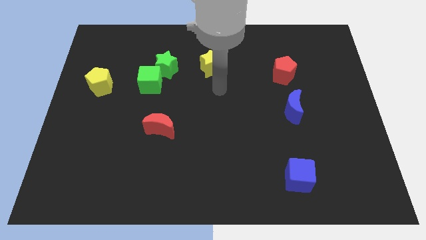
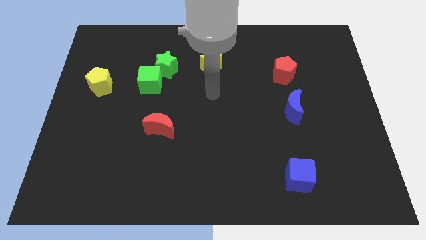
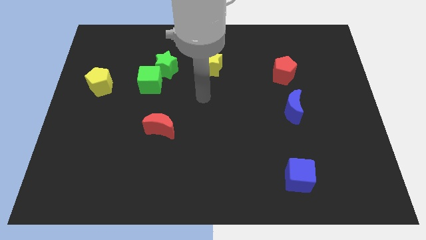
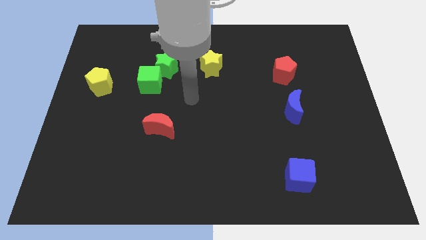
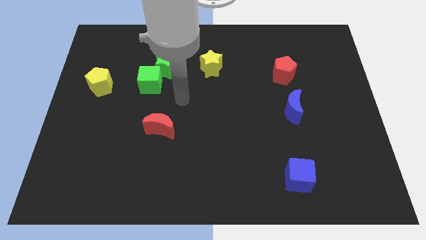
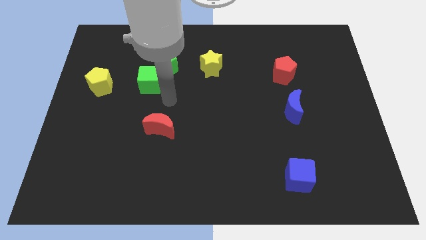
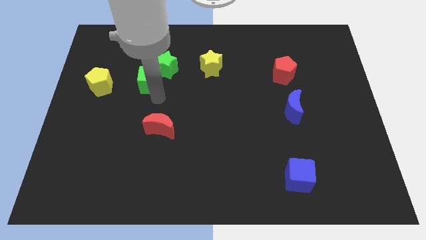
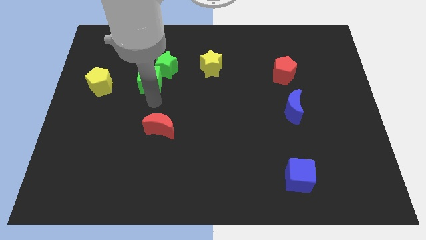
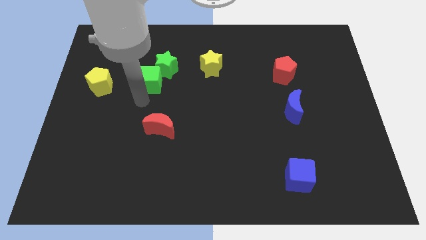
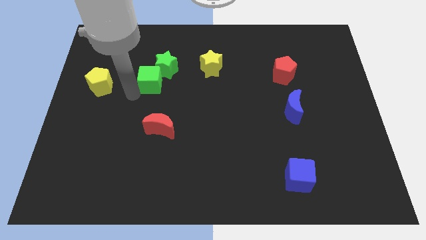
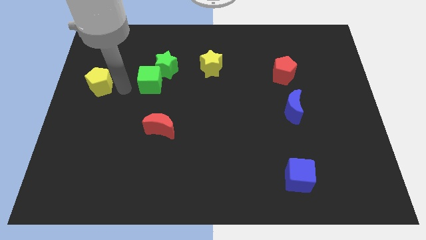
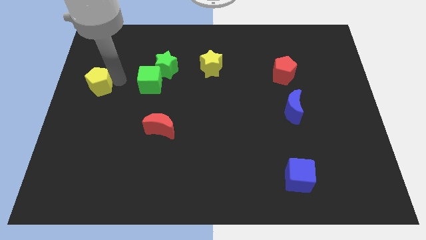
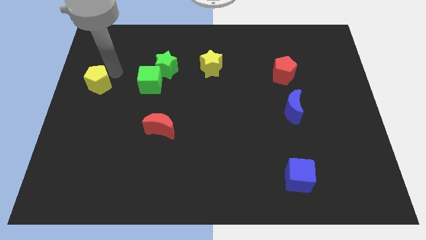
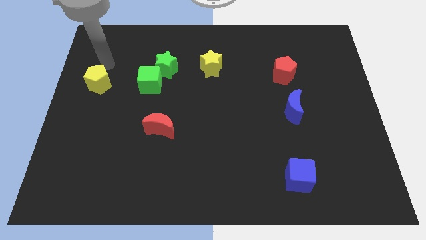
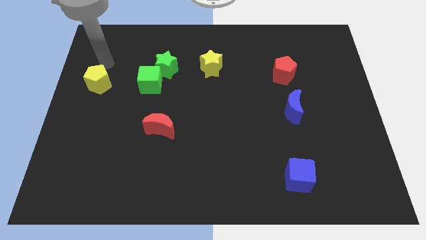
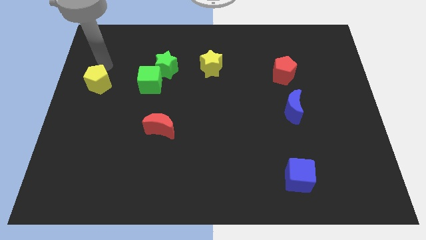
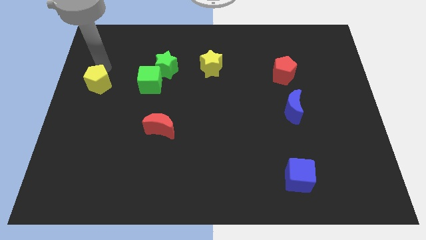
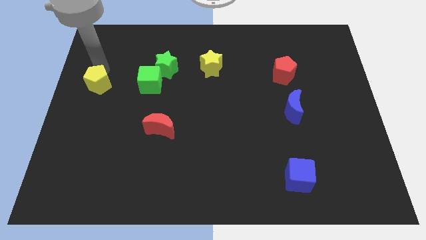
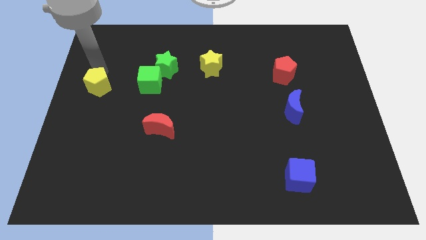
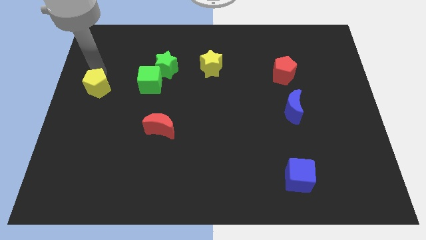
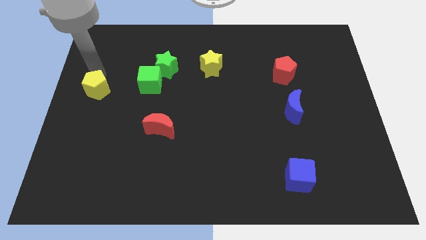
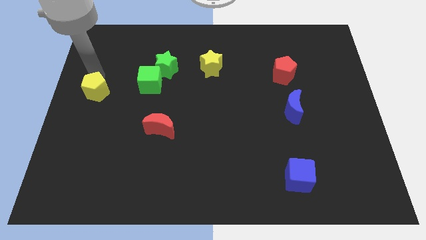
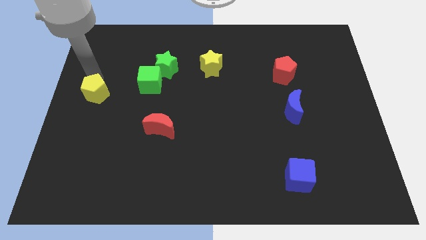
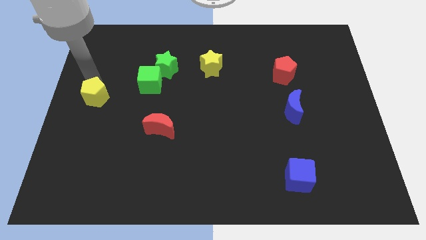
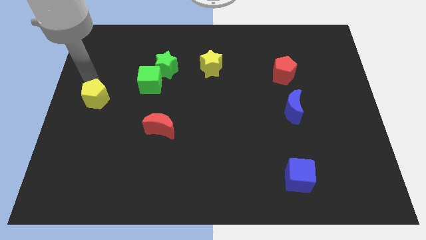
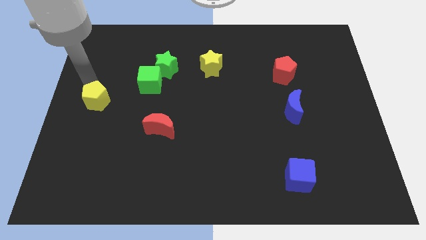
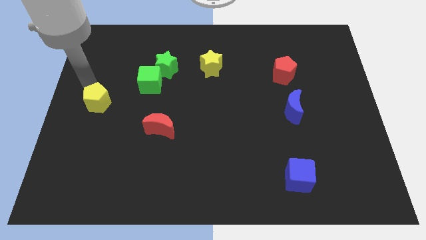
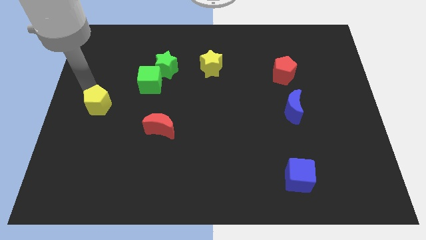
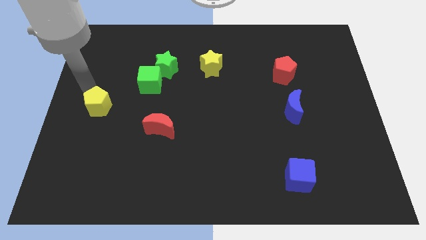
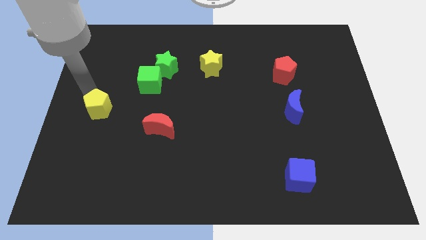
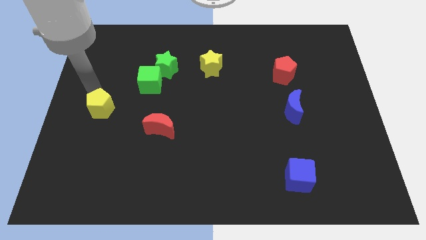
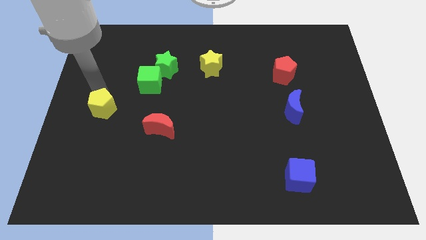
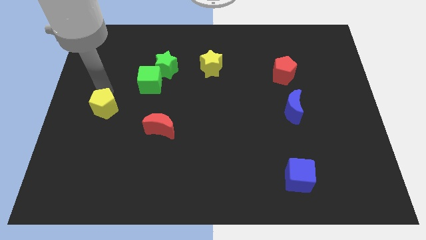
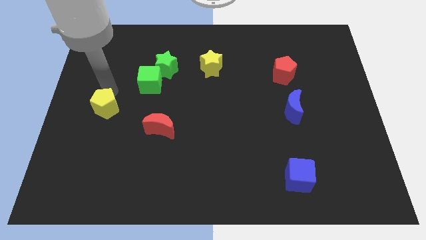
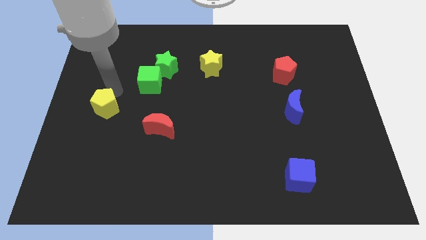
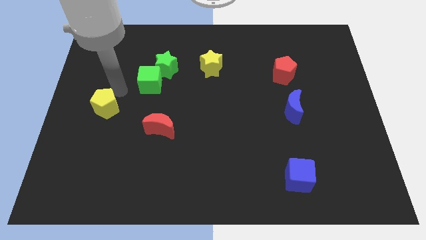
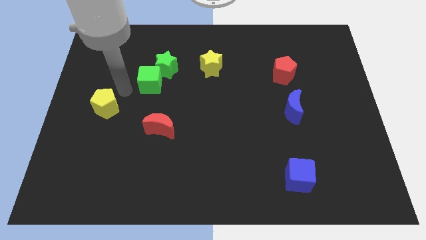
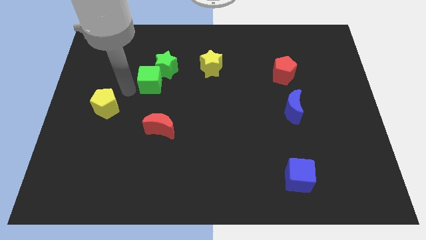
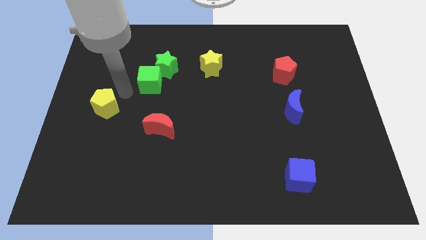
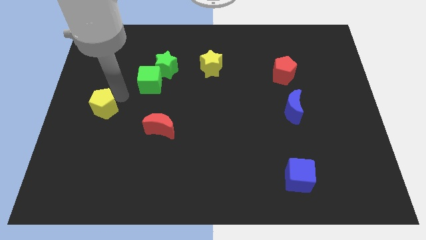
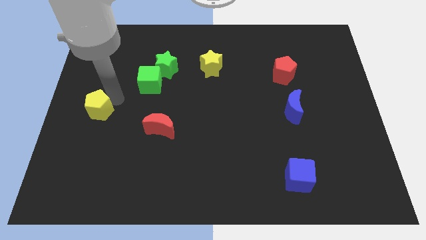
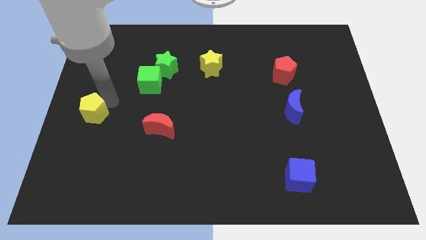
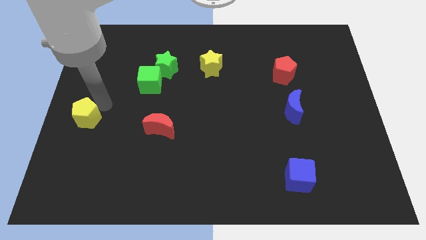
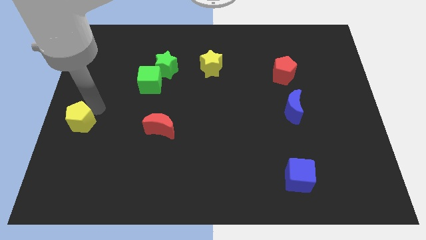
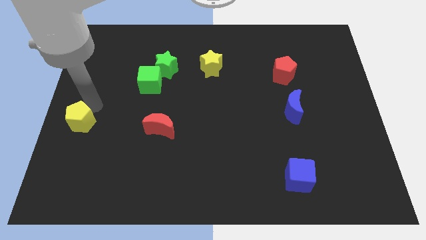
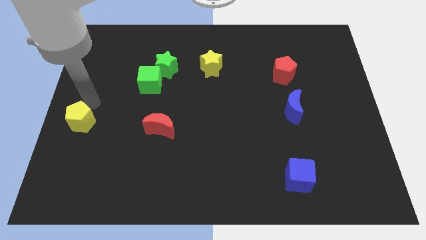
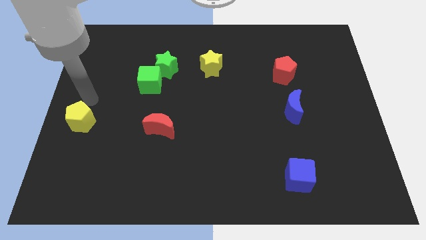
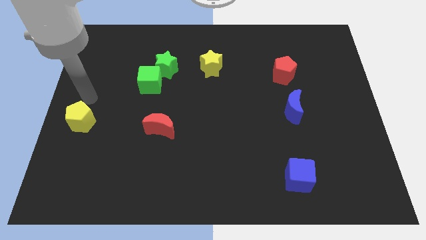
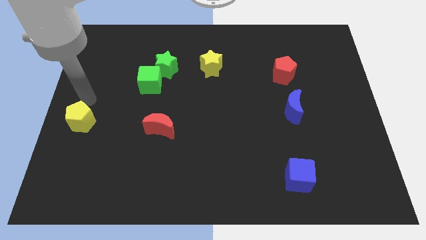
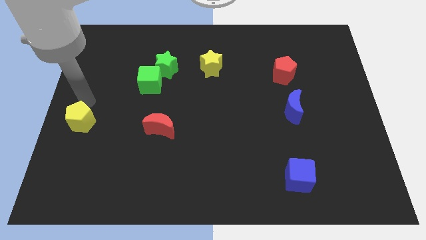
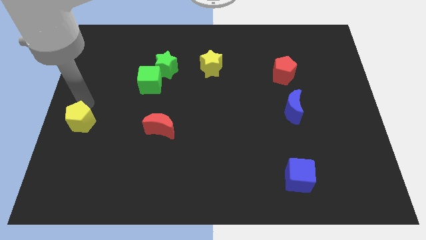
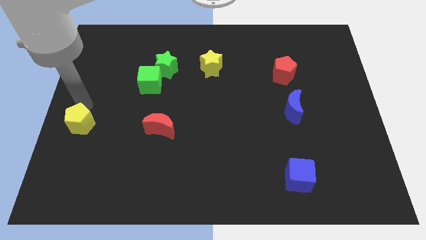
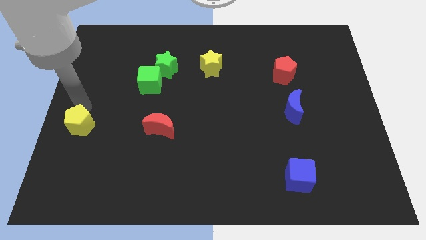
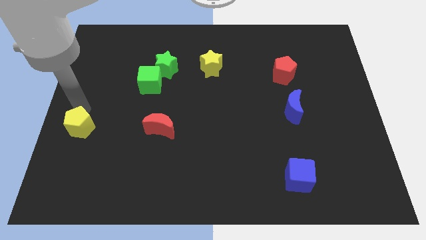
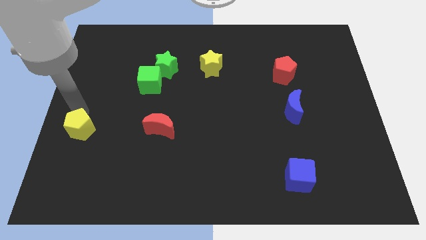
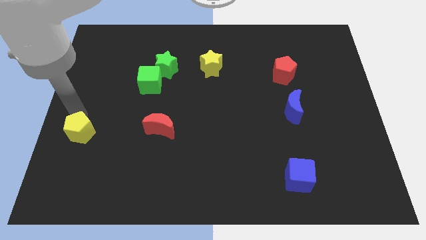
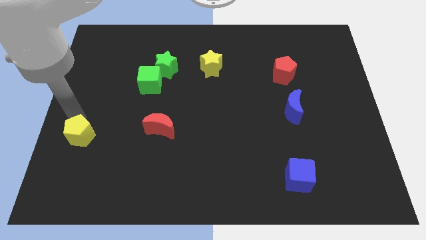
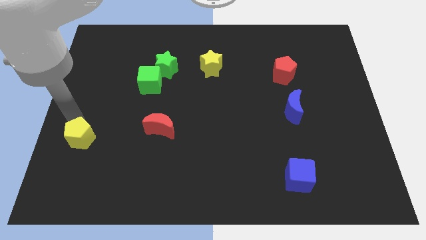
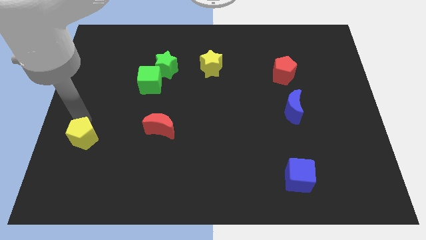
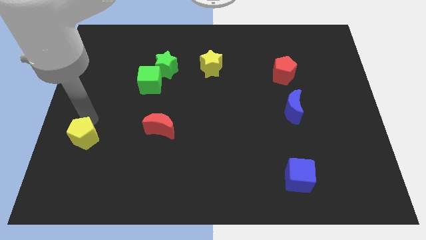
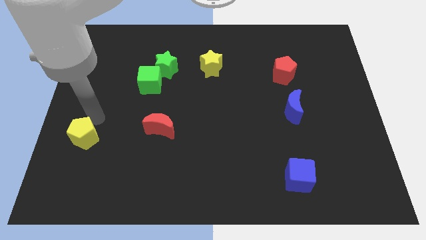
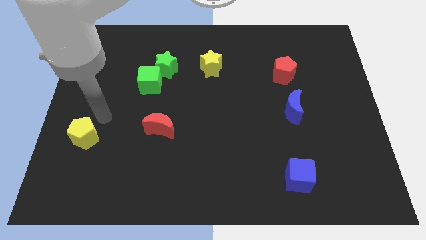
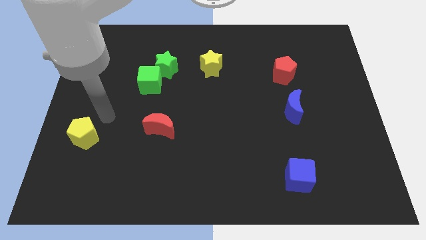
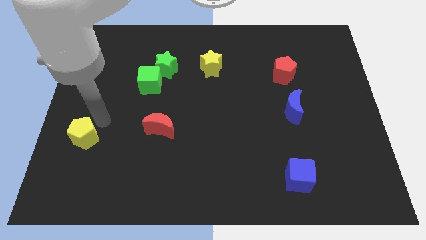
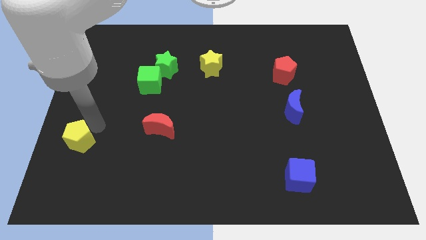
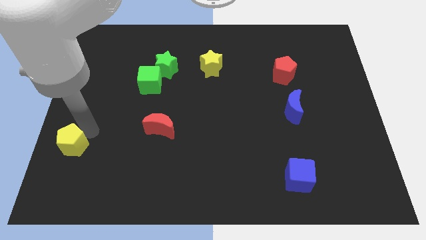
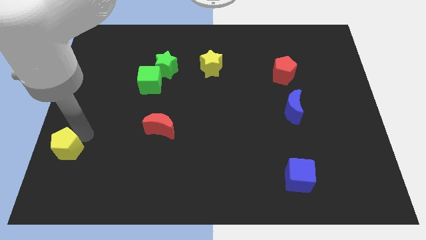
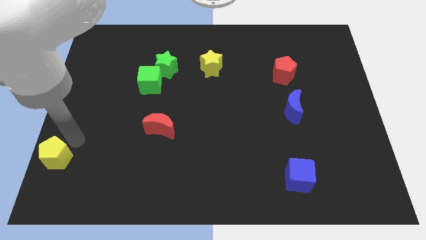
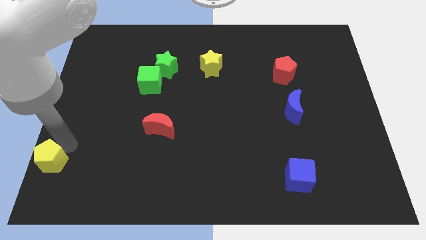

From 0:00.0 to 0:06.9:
move the yellow pentagon to the bottom left
